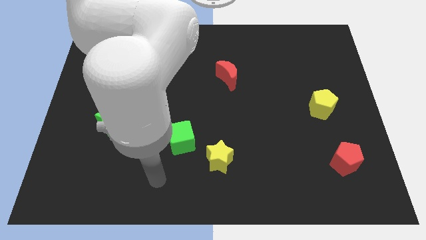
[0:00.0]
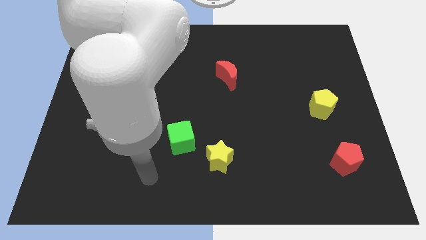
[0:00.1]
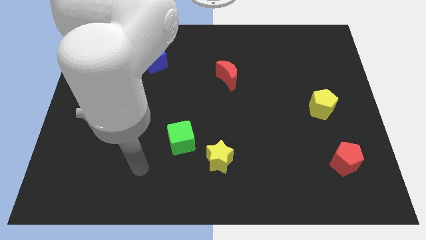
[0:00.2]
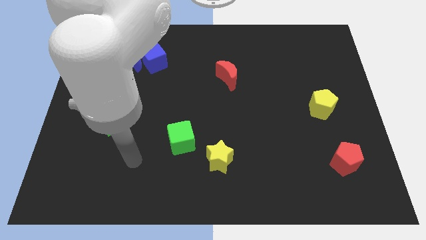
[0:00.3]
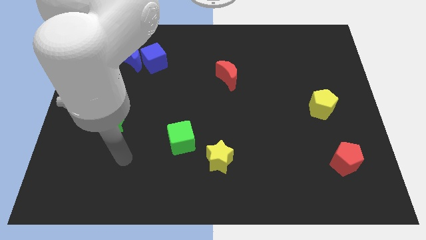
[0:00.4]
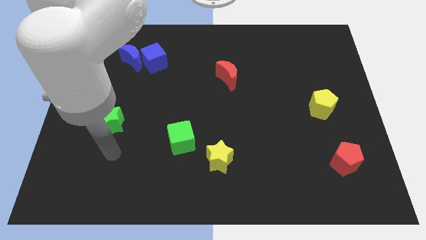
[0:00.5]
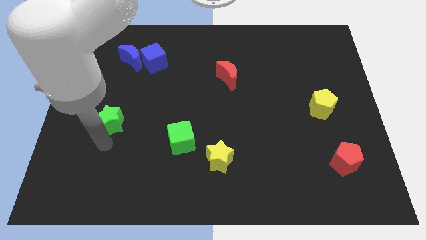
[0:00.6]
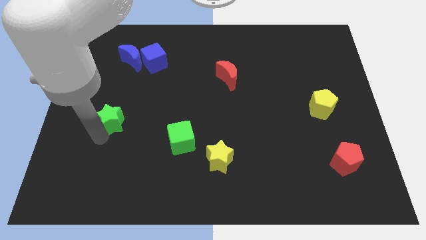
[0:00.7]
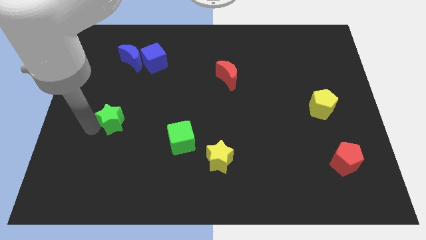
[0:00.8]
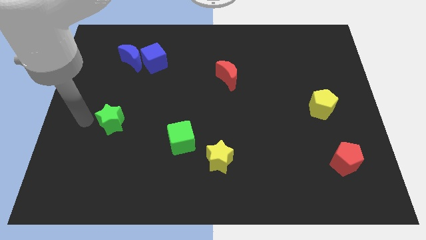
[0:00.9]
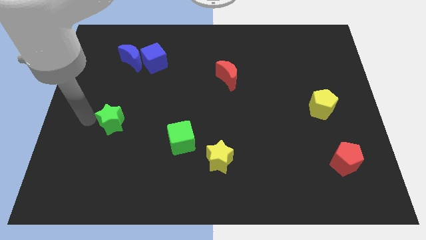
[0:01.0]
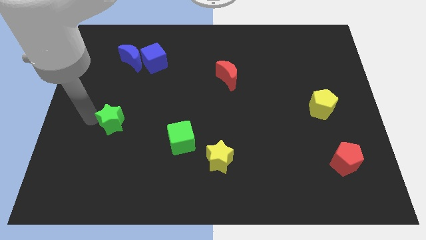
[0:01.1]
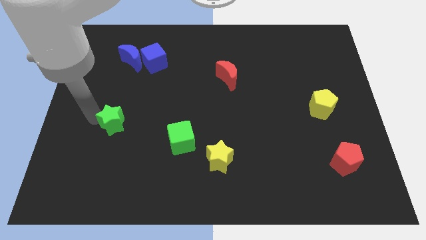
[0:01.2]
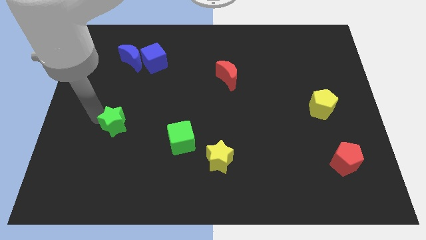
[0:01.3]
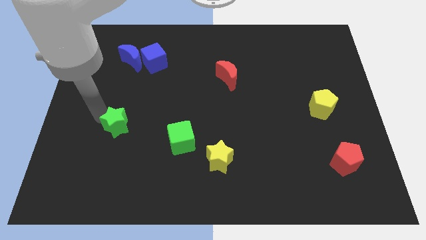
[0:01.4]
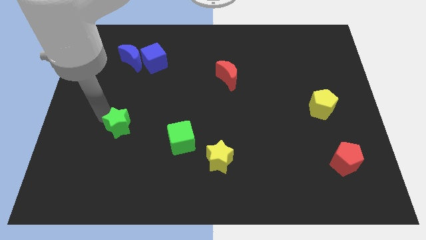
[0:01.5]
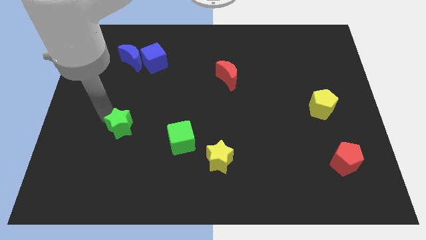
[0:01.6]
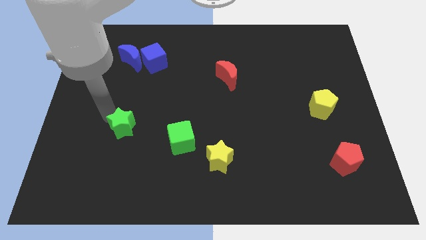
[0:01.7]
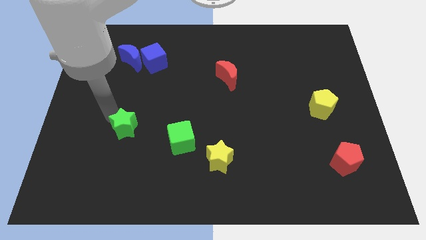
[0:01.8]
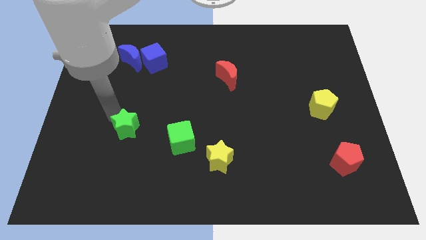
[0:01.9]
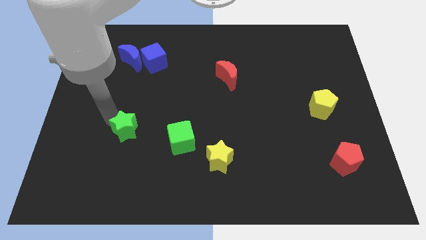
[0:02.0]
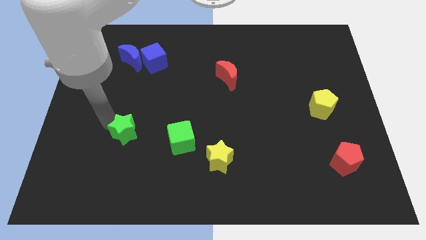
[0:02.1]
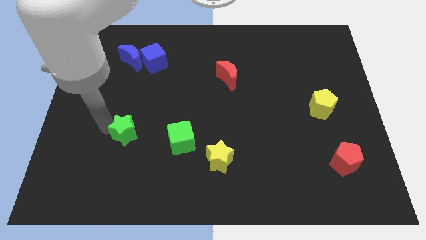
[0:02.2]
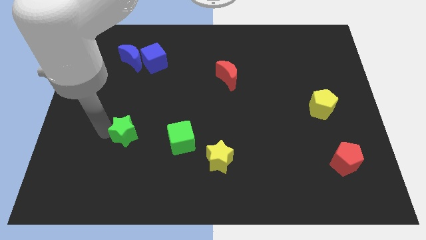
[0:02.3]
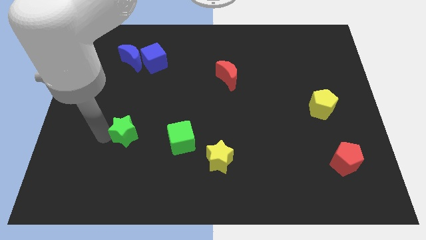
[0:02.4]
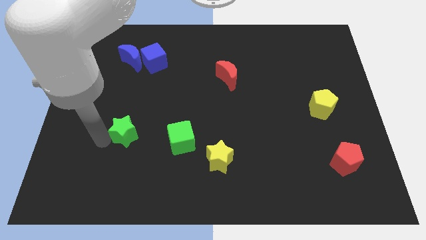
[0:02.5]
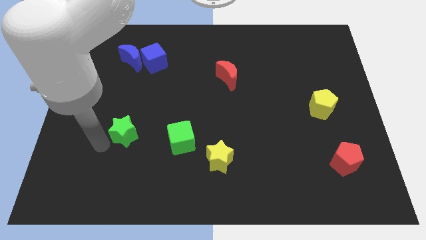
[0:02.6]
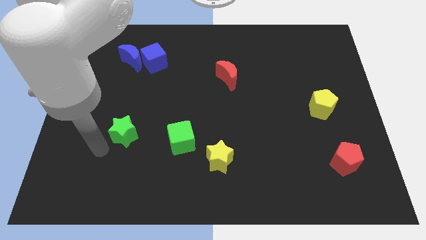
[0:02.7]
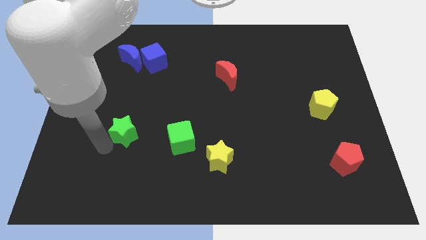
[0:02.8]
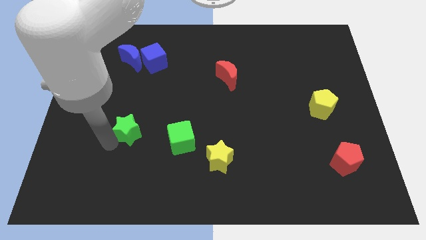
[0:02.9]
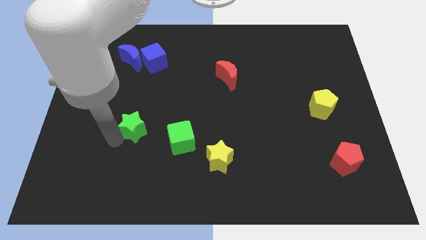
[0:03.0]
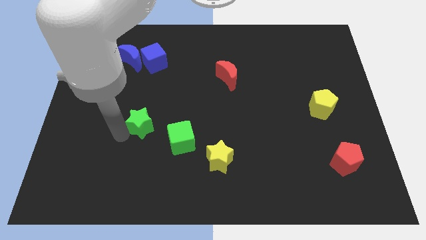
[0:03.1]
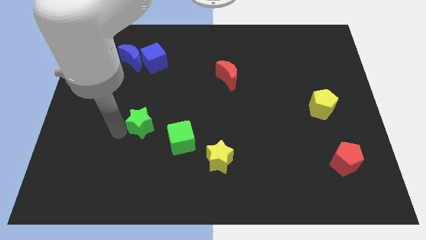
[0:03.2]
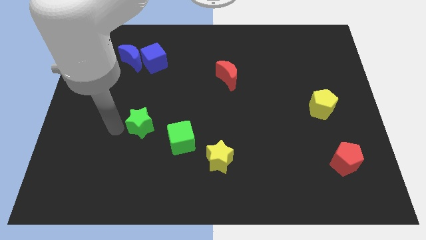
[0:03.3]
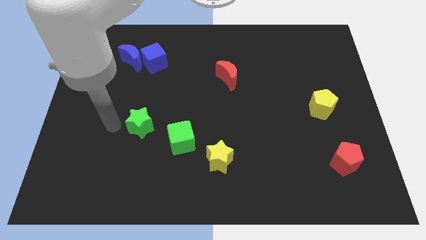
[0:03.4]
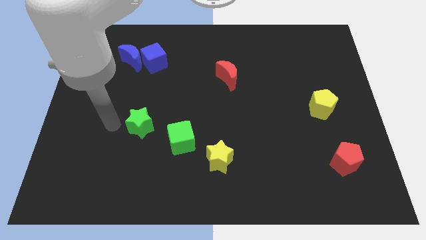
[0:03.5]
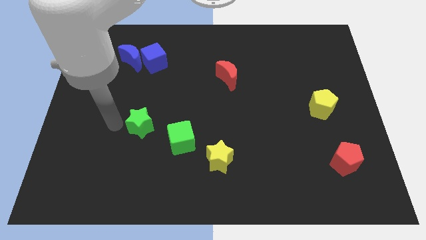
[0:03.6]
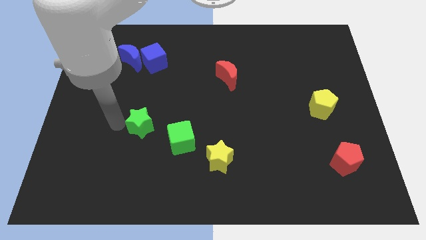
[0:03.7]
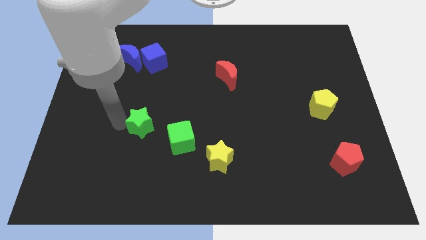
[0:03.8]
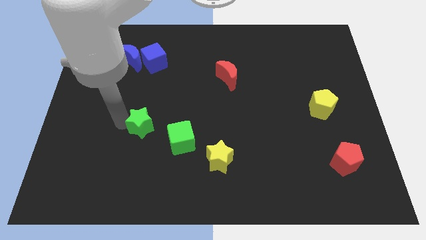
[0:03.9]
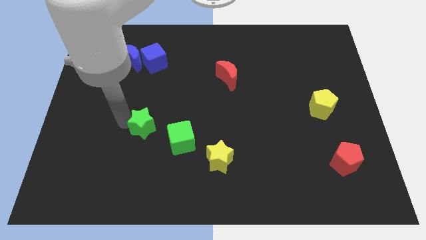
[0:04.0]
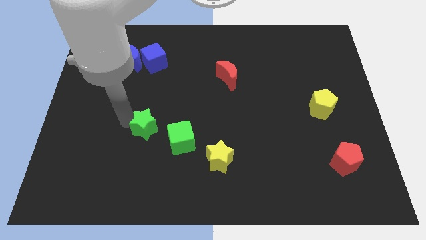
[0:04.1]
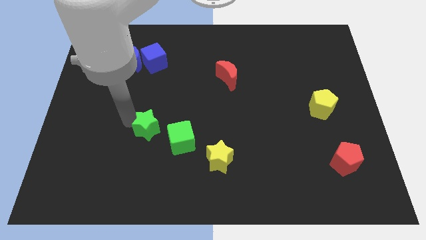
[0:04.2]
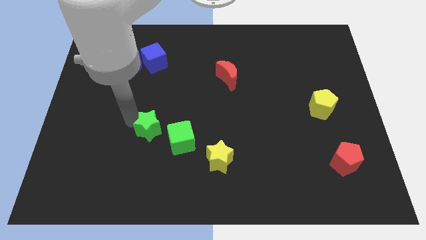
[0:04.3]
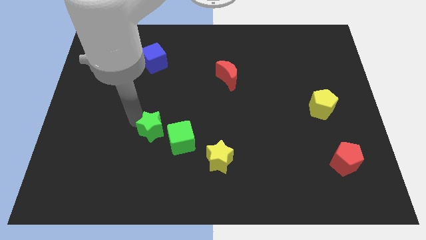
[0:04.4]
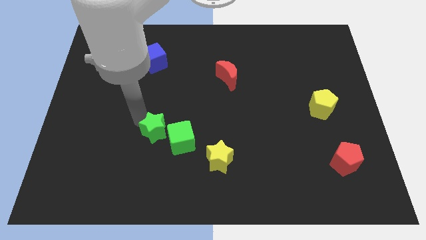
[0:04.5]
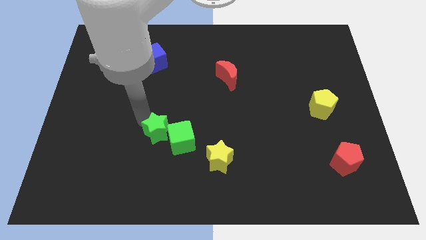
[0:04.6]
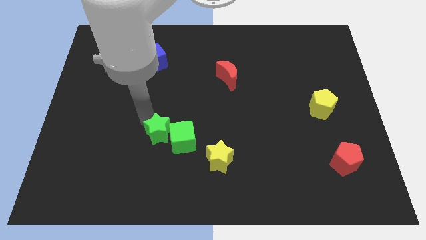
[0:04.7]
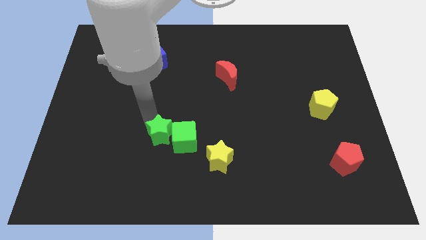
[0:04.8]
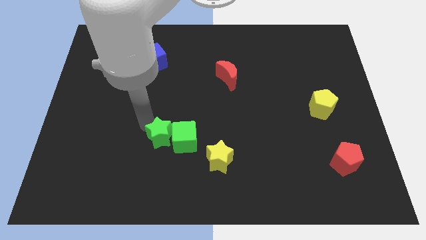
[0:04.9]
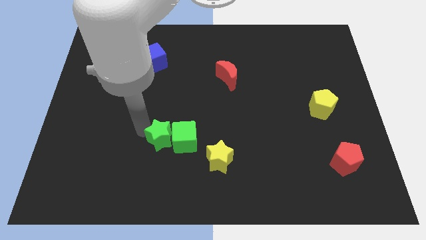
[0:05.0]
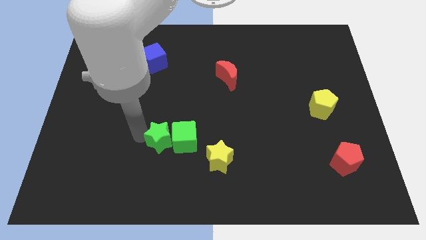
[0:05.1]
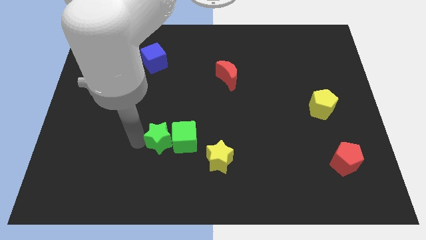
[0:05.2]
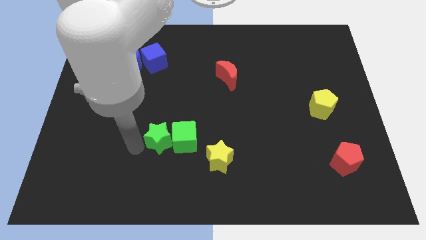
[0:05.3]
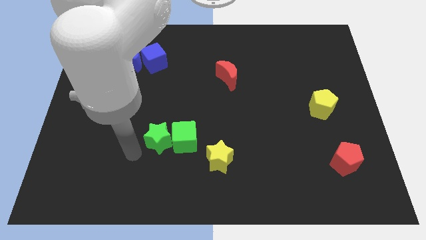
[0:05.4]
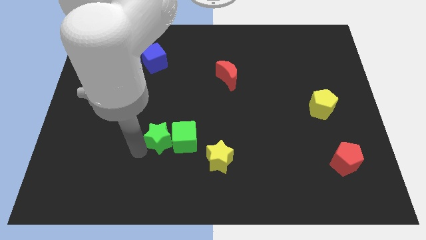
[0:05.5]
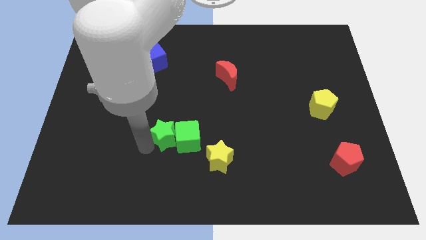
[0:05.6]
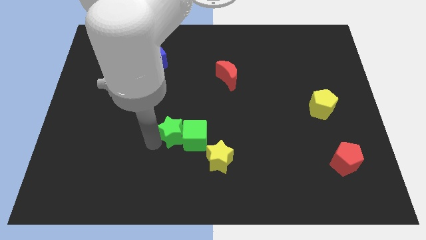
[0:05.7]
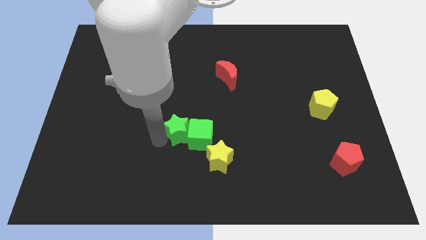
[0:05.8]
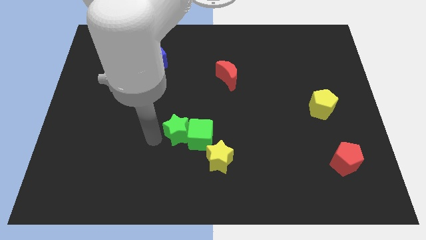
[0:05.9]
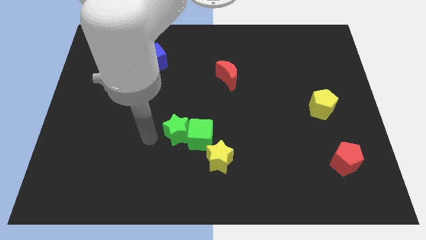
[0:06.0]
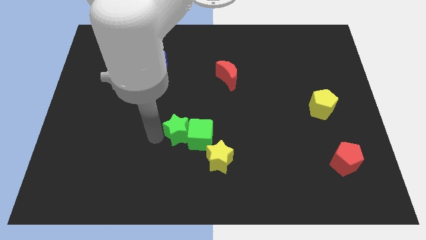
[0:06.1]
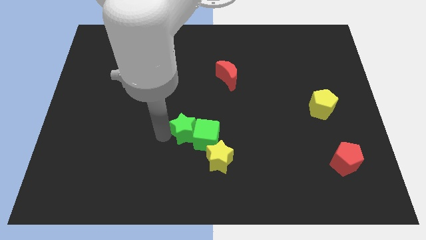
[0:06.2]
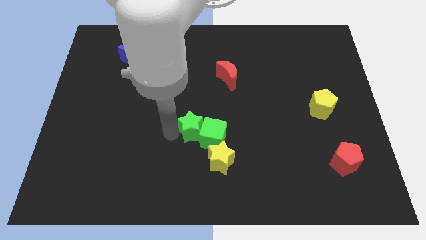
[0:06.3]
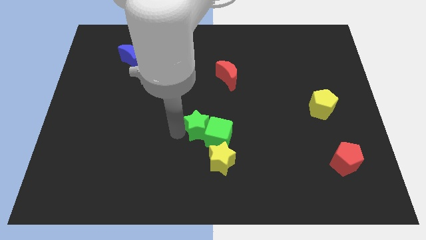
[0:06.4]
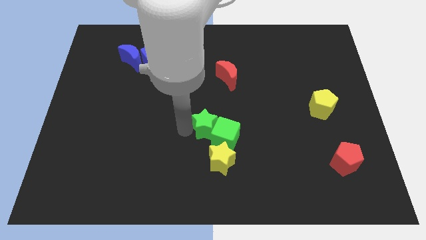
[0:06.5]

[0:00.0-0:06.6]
move the green star to the right
